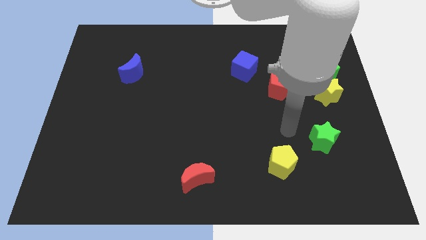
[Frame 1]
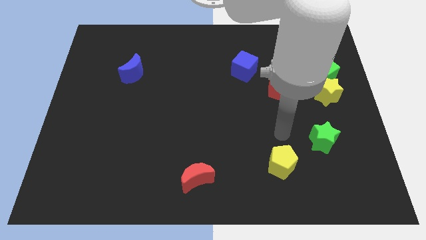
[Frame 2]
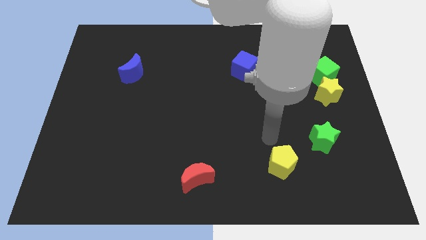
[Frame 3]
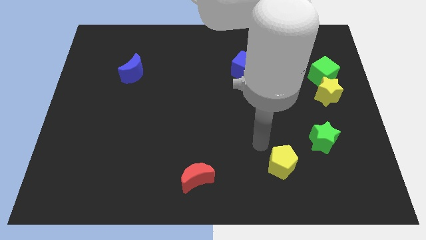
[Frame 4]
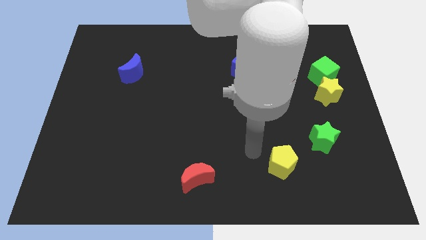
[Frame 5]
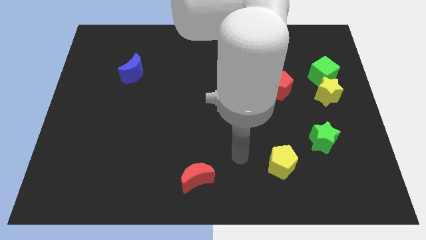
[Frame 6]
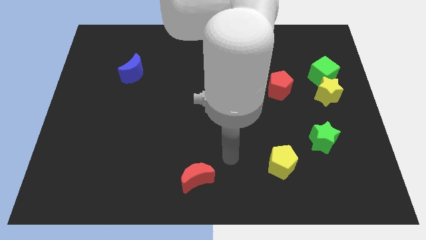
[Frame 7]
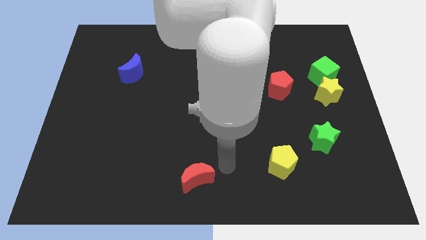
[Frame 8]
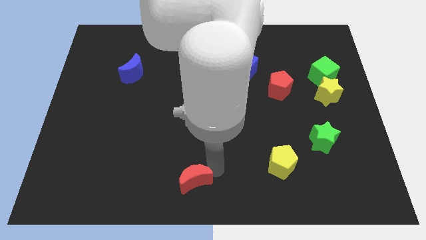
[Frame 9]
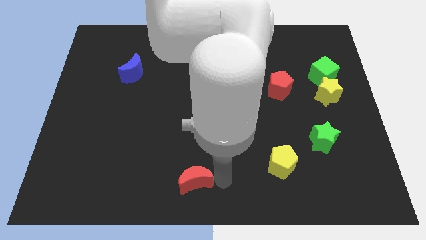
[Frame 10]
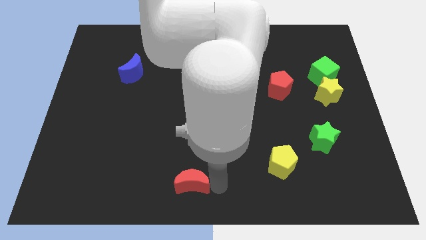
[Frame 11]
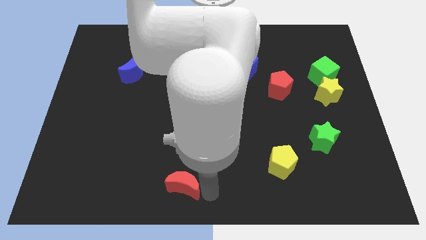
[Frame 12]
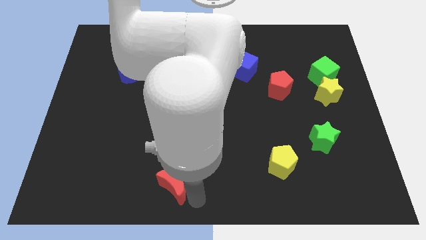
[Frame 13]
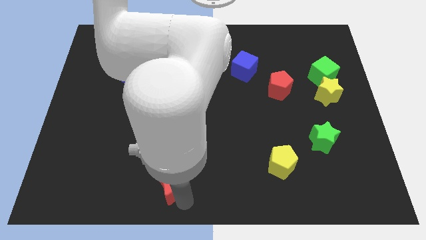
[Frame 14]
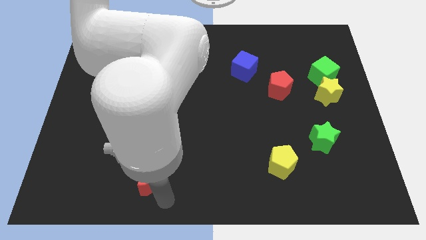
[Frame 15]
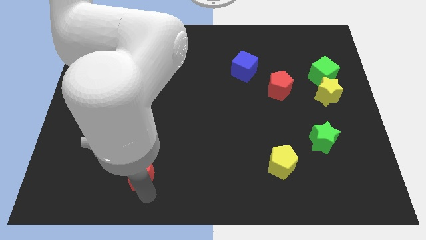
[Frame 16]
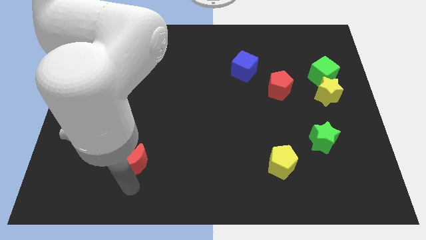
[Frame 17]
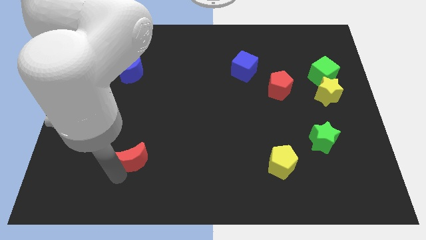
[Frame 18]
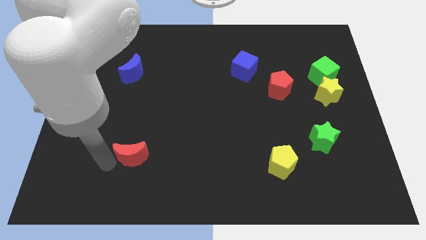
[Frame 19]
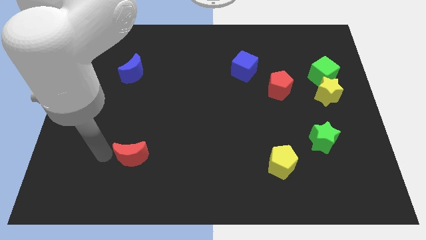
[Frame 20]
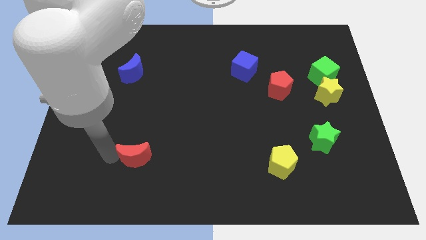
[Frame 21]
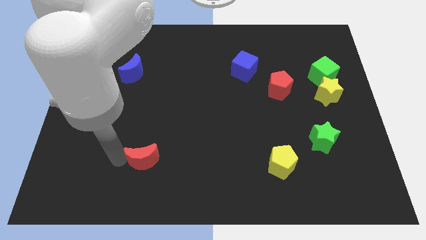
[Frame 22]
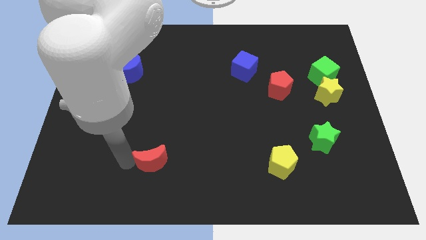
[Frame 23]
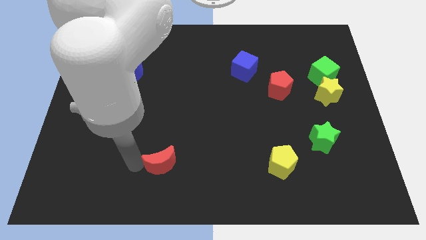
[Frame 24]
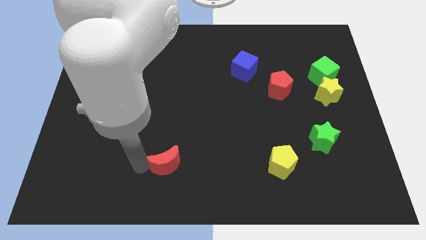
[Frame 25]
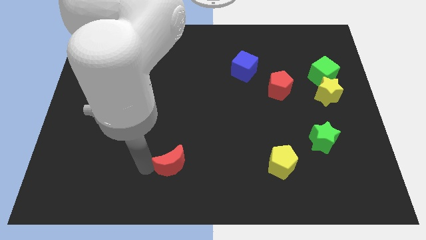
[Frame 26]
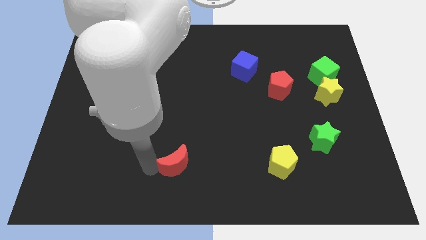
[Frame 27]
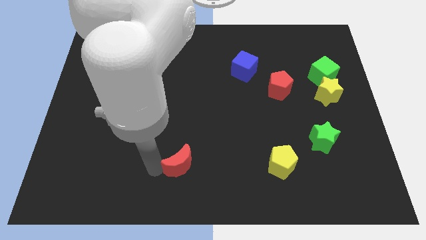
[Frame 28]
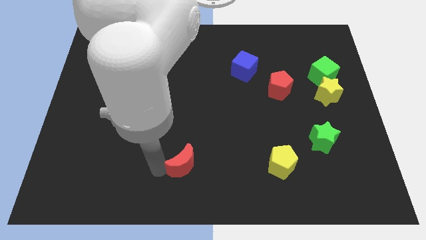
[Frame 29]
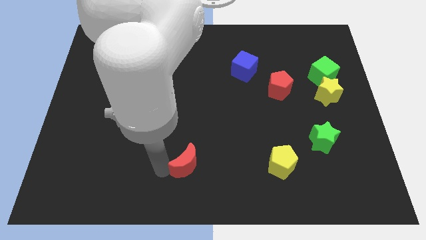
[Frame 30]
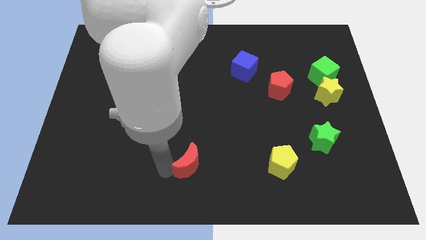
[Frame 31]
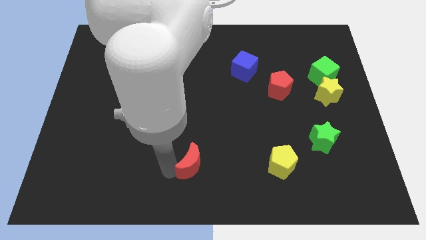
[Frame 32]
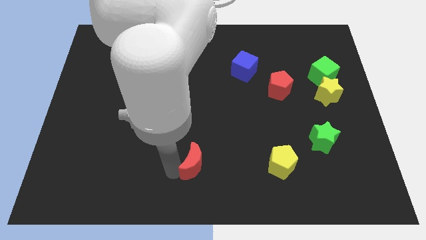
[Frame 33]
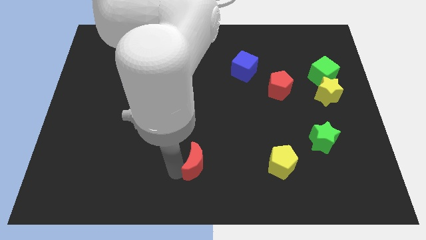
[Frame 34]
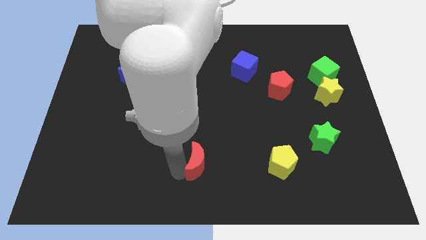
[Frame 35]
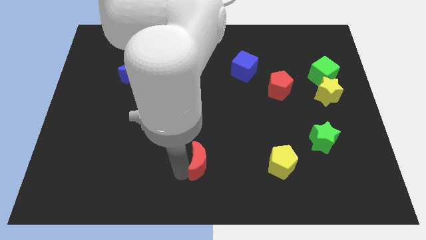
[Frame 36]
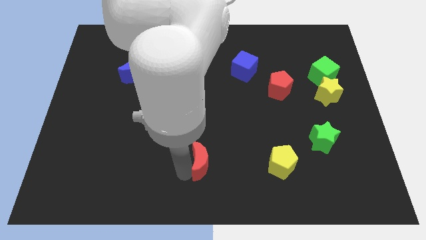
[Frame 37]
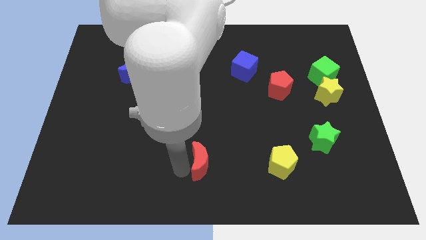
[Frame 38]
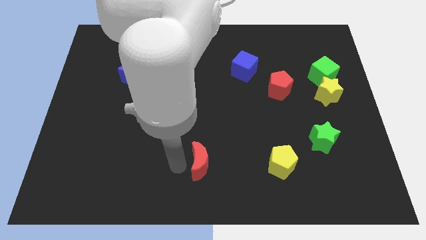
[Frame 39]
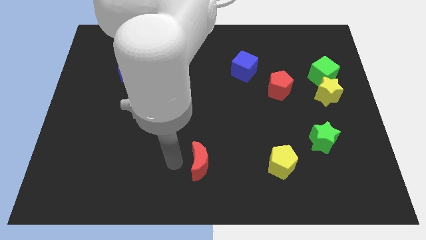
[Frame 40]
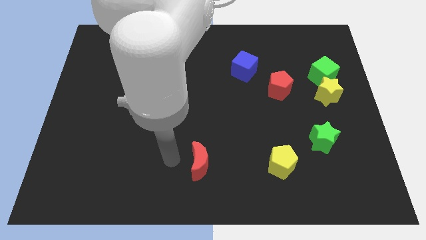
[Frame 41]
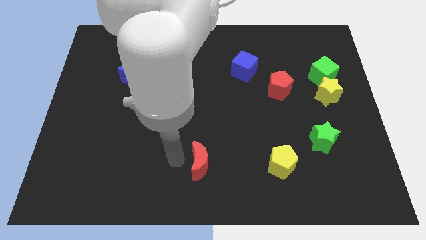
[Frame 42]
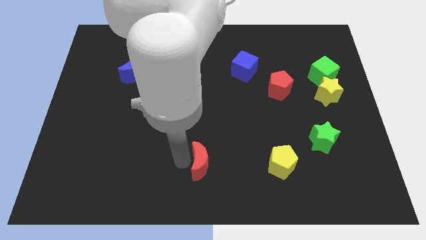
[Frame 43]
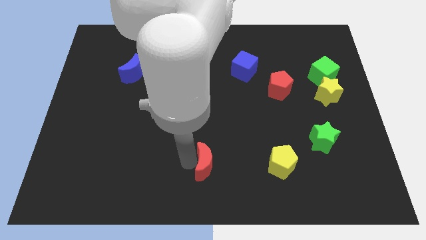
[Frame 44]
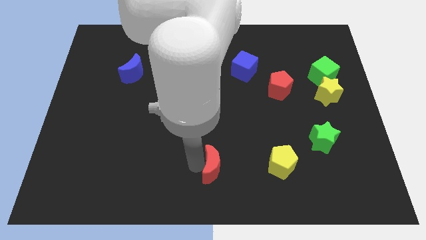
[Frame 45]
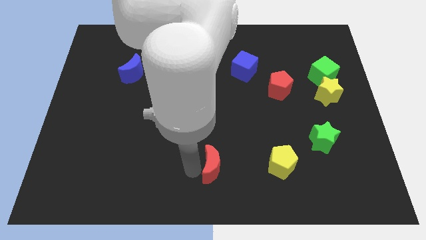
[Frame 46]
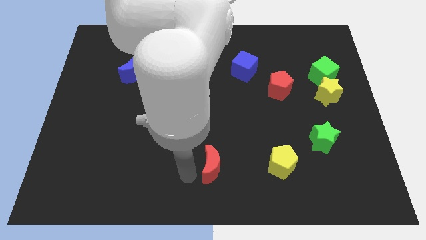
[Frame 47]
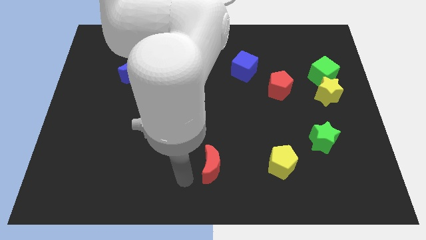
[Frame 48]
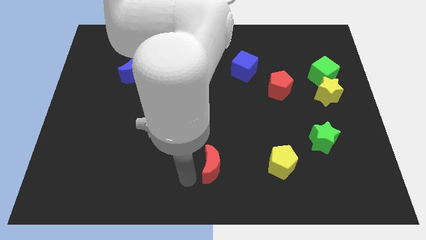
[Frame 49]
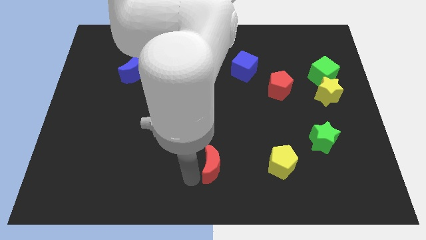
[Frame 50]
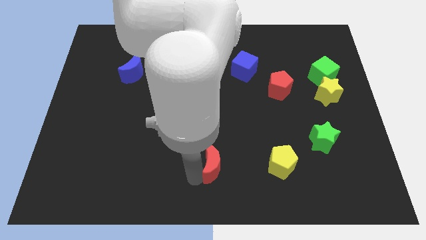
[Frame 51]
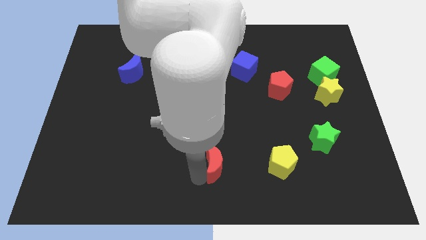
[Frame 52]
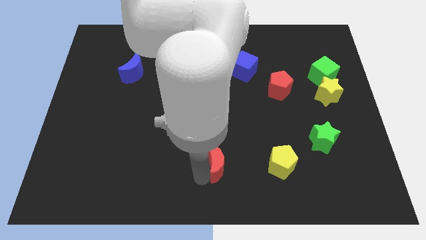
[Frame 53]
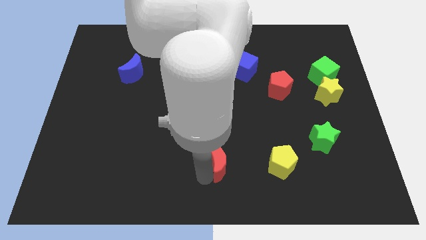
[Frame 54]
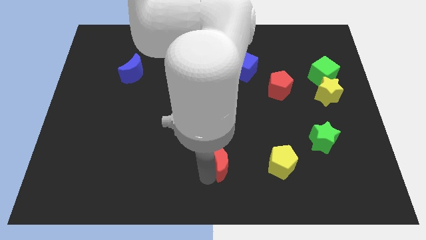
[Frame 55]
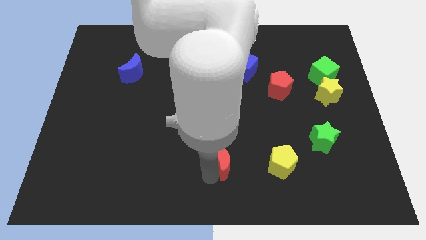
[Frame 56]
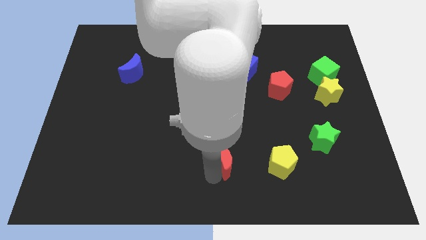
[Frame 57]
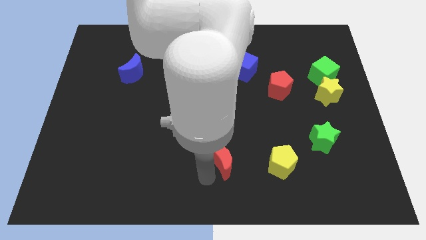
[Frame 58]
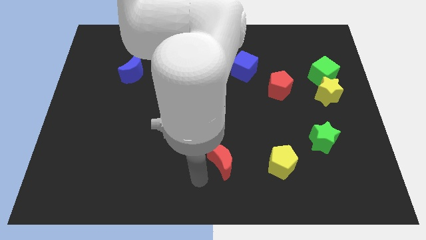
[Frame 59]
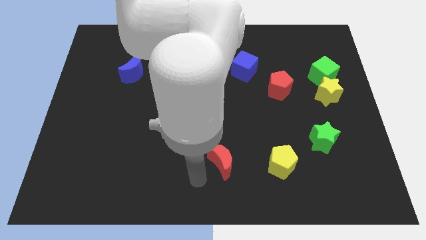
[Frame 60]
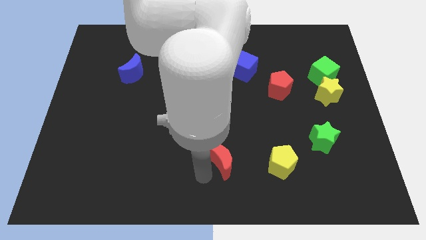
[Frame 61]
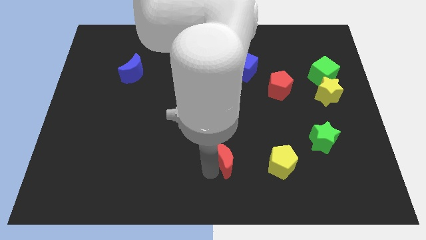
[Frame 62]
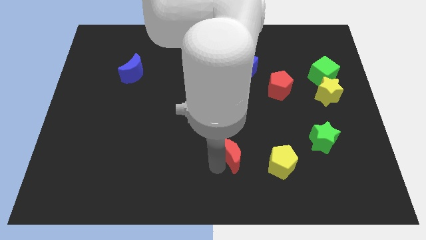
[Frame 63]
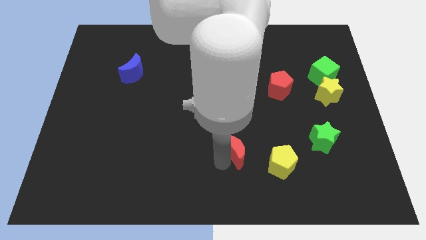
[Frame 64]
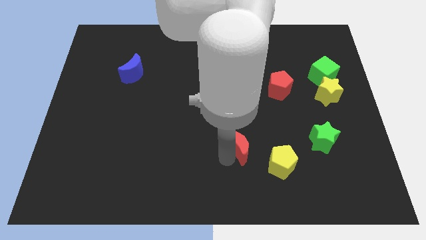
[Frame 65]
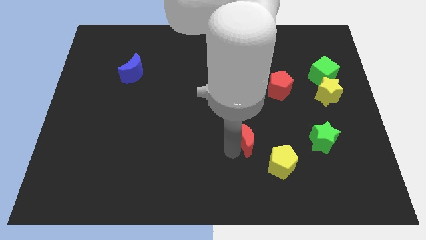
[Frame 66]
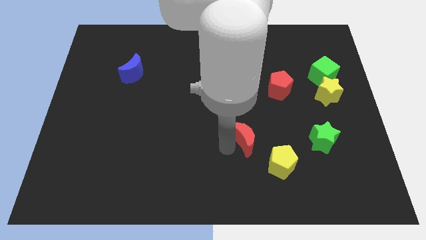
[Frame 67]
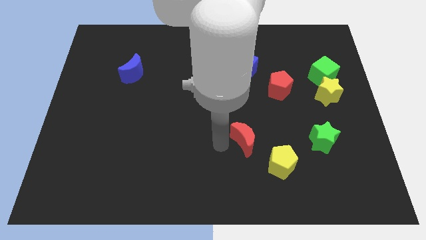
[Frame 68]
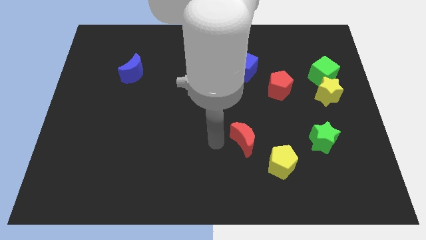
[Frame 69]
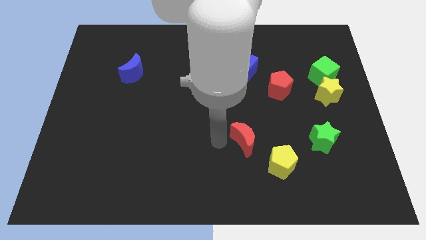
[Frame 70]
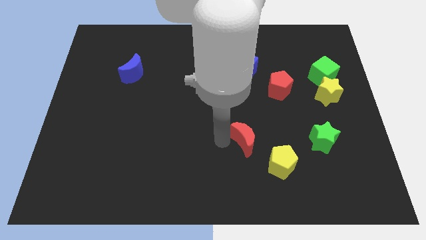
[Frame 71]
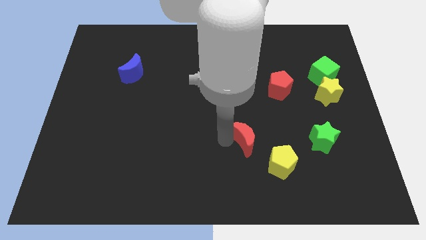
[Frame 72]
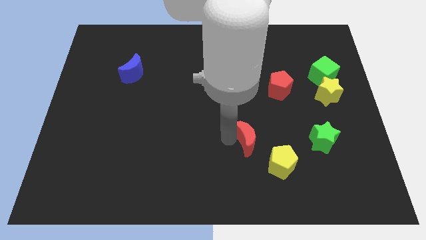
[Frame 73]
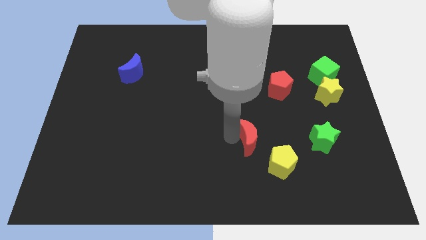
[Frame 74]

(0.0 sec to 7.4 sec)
slide the red moon left of the green star
